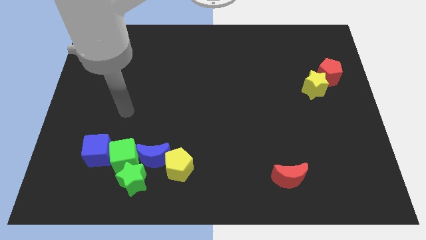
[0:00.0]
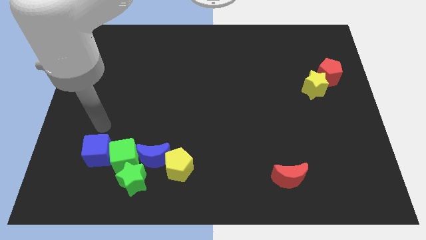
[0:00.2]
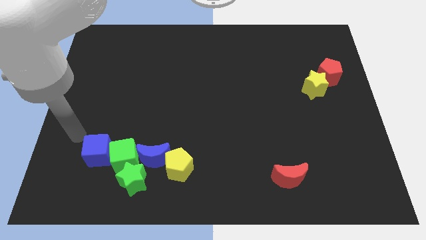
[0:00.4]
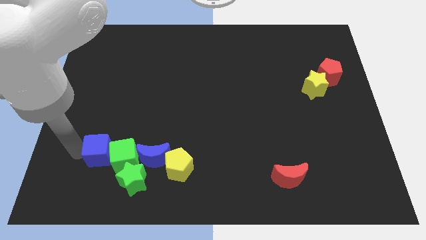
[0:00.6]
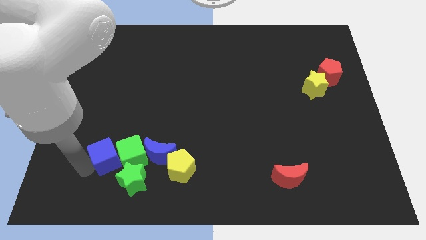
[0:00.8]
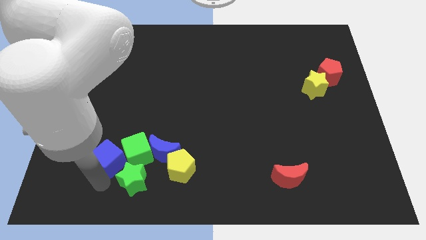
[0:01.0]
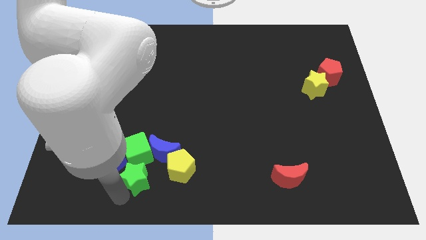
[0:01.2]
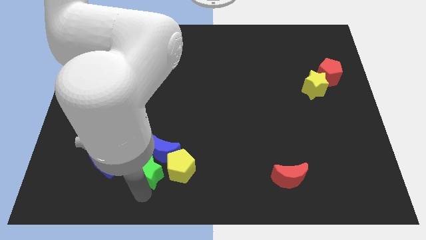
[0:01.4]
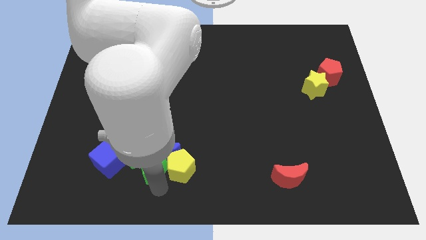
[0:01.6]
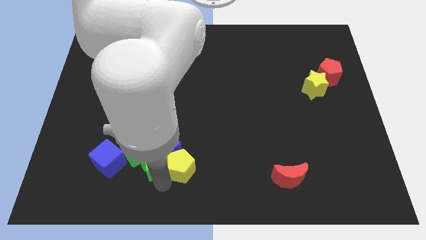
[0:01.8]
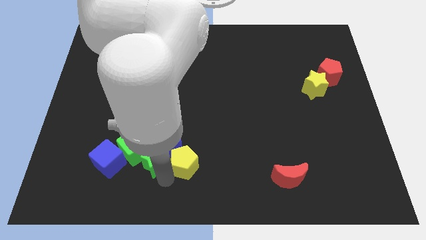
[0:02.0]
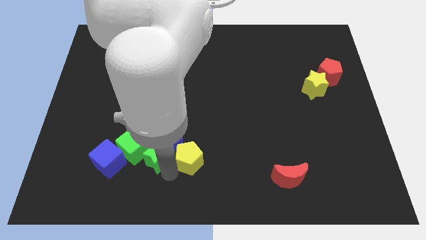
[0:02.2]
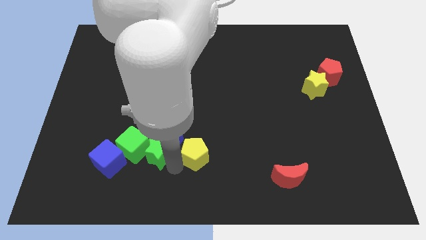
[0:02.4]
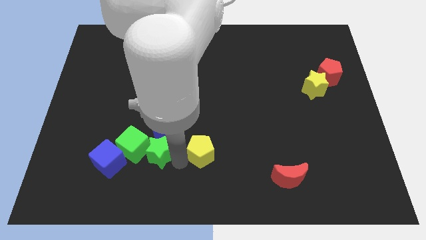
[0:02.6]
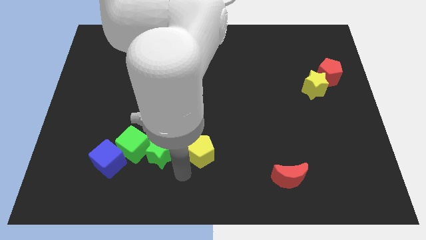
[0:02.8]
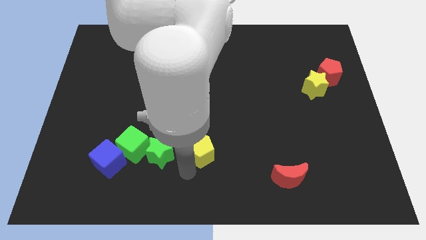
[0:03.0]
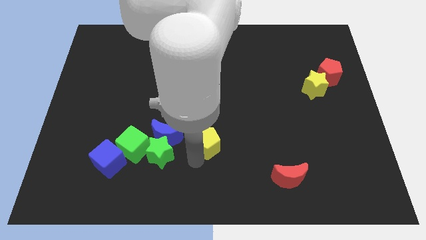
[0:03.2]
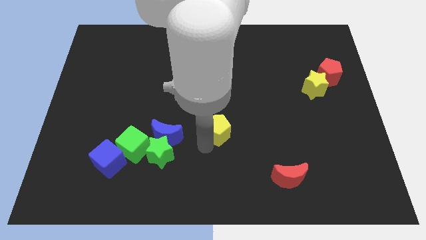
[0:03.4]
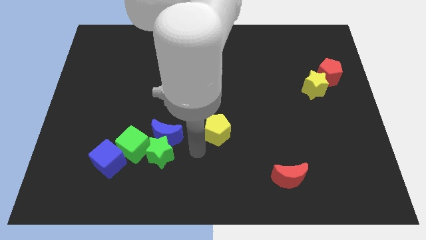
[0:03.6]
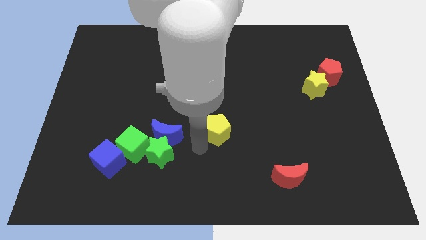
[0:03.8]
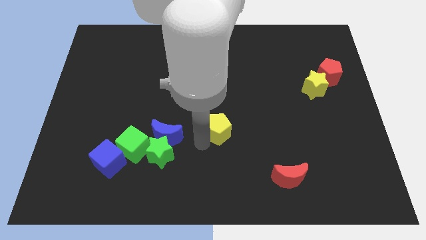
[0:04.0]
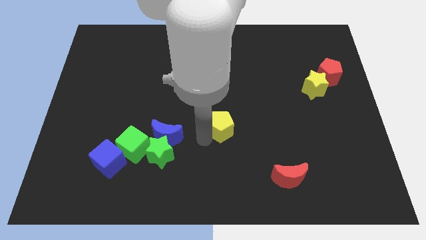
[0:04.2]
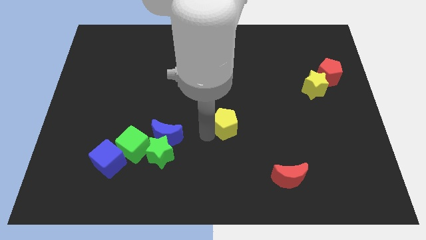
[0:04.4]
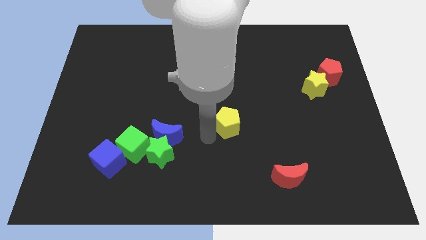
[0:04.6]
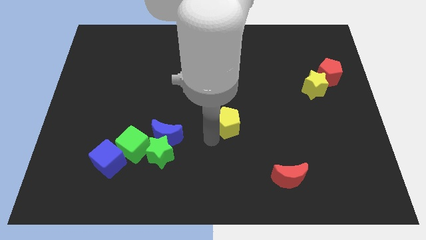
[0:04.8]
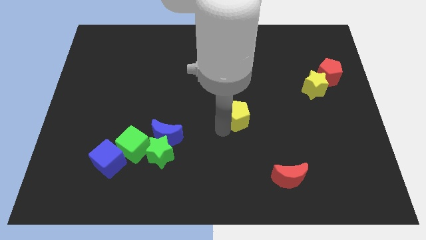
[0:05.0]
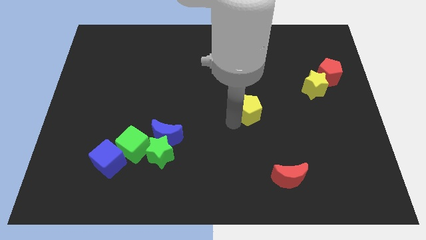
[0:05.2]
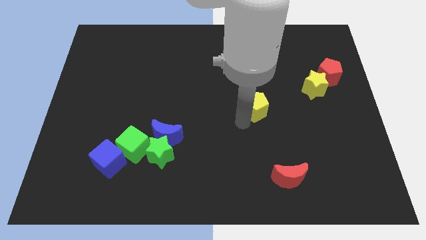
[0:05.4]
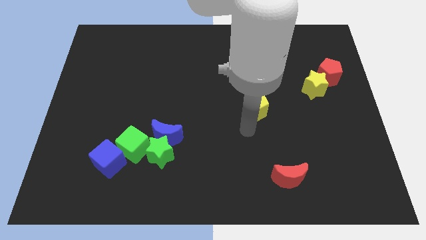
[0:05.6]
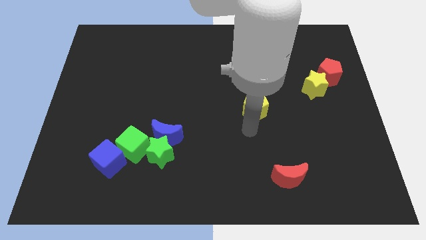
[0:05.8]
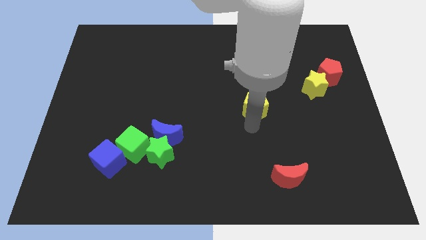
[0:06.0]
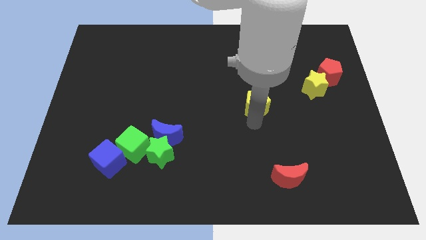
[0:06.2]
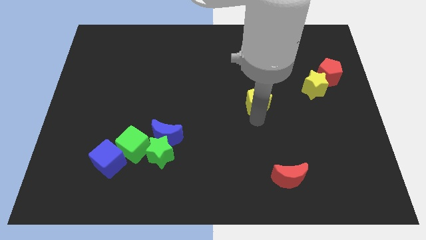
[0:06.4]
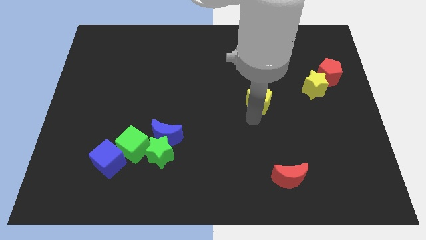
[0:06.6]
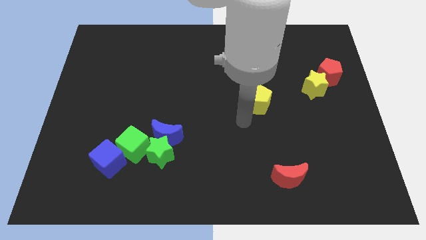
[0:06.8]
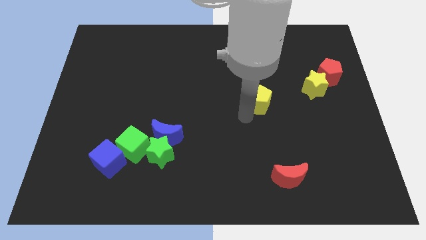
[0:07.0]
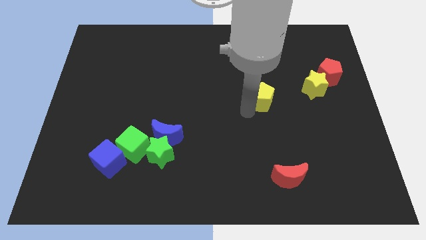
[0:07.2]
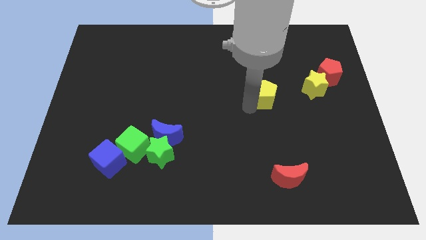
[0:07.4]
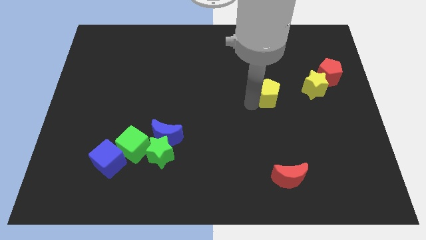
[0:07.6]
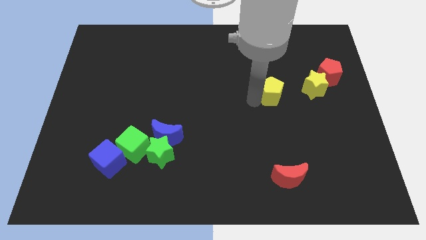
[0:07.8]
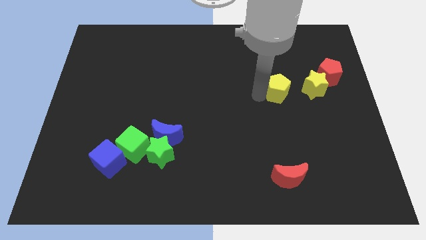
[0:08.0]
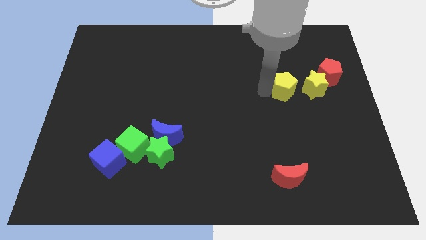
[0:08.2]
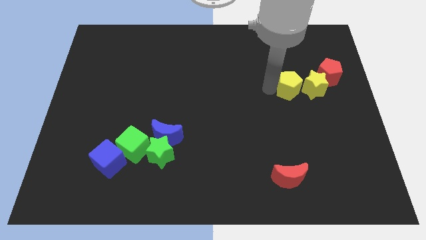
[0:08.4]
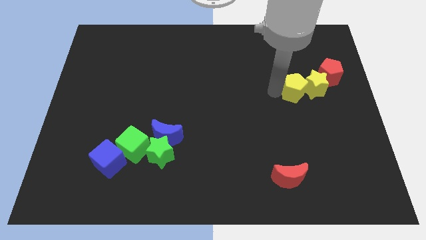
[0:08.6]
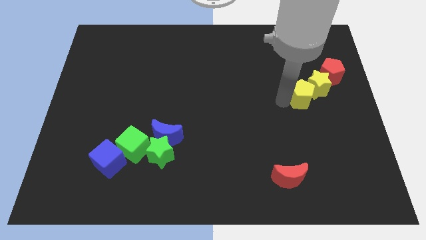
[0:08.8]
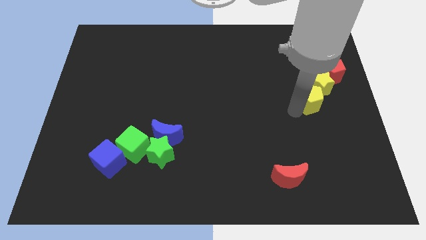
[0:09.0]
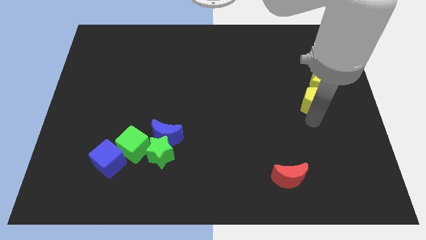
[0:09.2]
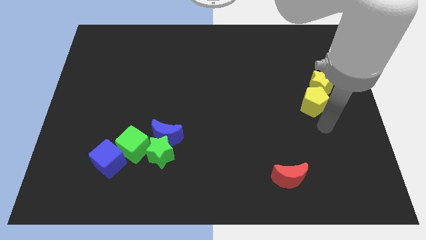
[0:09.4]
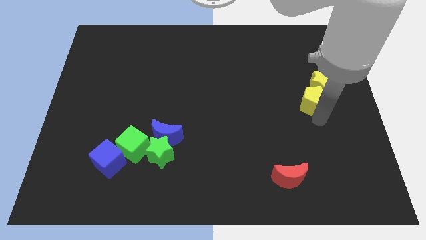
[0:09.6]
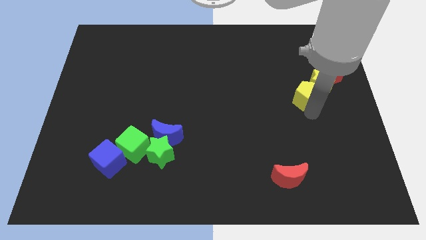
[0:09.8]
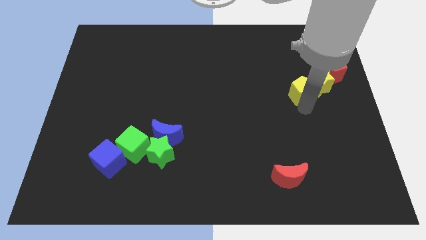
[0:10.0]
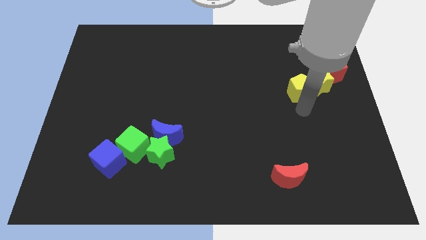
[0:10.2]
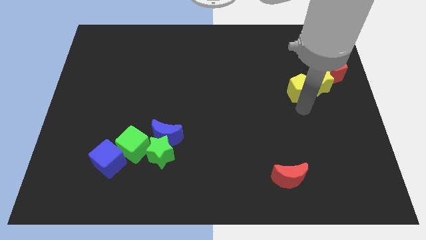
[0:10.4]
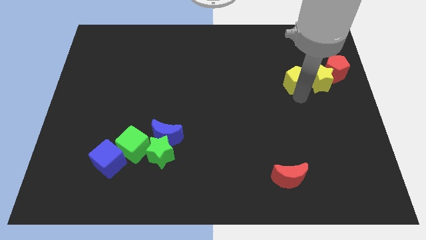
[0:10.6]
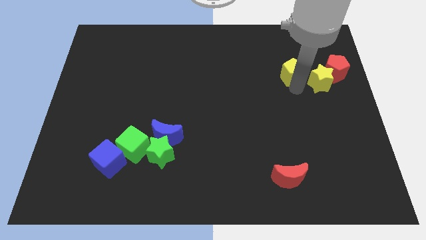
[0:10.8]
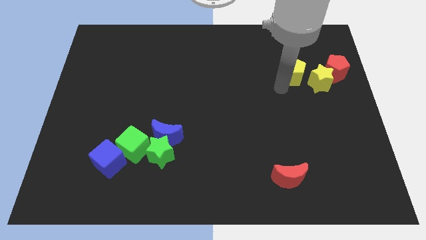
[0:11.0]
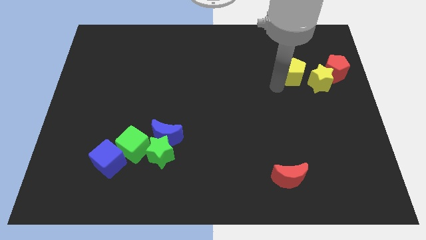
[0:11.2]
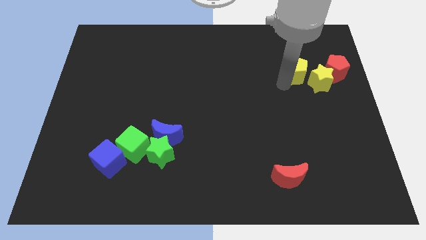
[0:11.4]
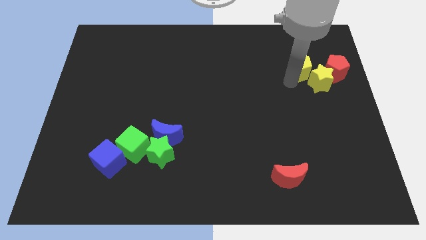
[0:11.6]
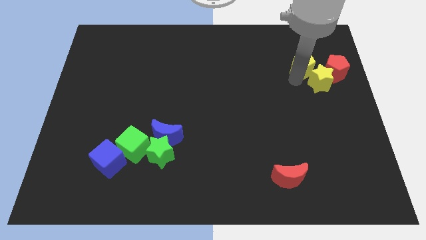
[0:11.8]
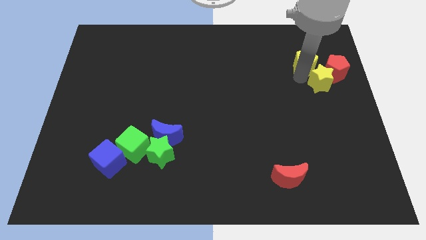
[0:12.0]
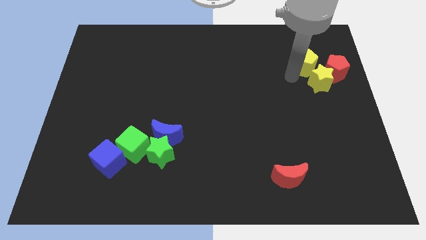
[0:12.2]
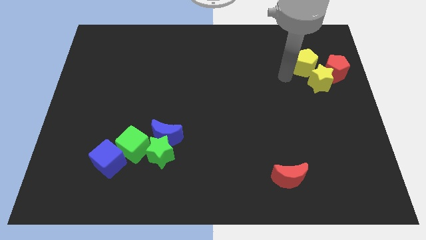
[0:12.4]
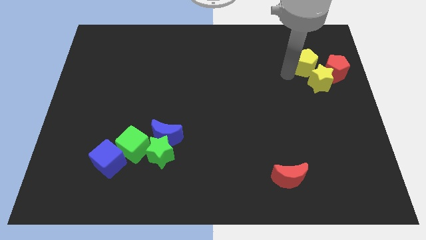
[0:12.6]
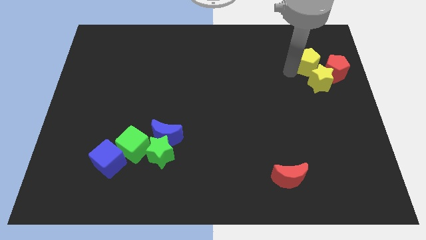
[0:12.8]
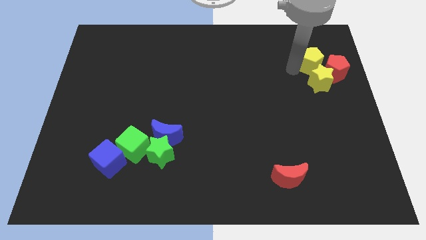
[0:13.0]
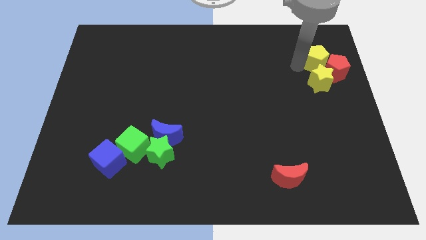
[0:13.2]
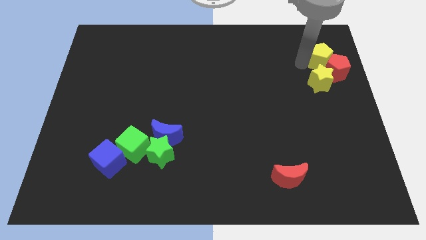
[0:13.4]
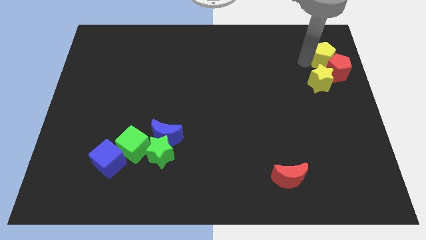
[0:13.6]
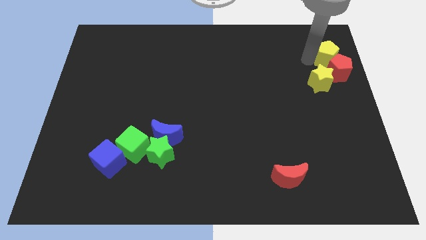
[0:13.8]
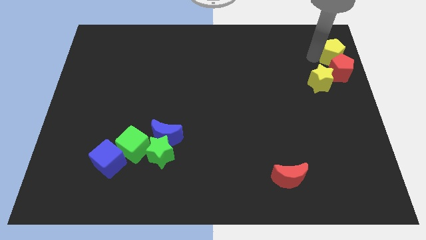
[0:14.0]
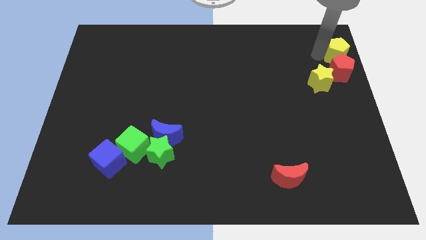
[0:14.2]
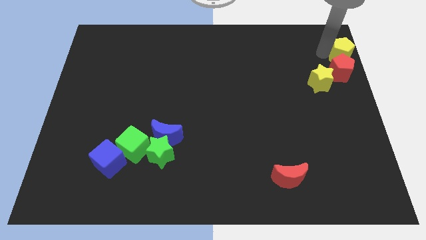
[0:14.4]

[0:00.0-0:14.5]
slide the yellow pentagon to the top right of the board
